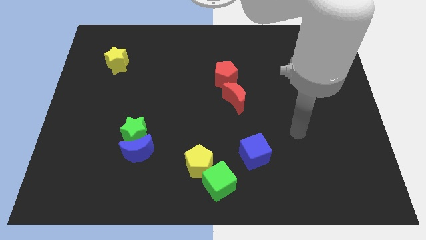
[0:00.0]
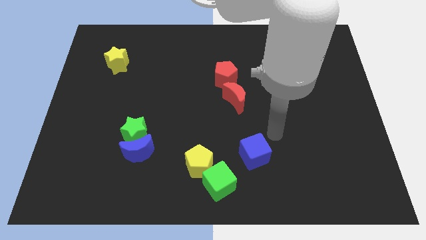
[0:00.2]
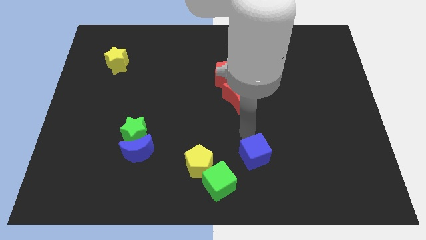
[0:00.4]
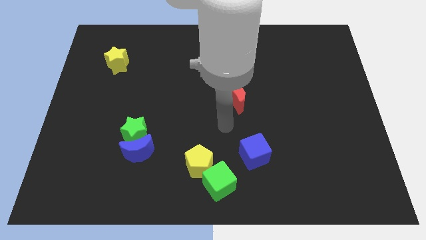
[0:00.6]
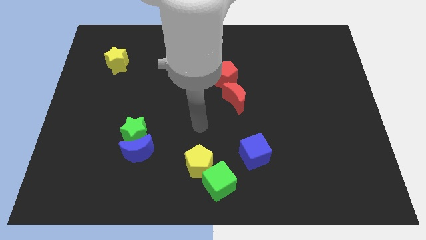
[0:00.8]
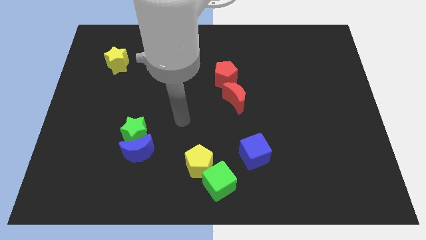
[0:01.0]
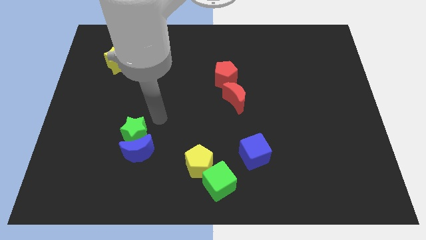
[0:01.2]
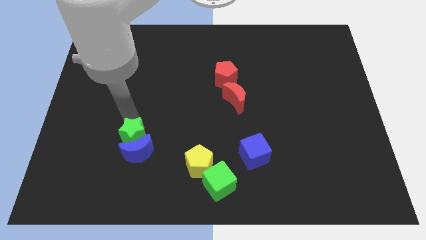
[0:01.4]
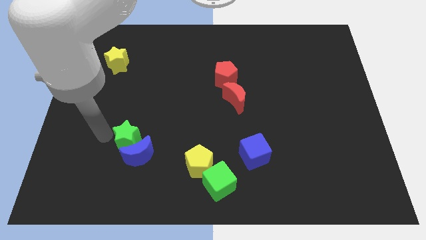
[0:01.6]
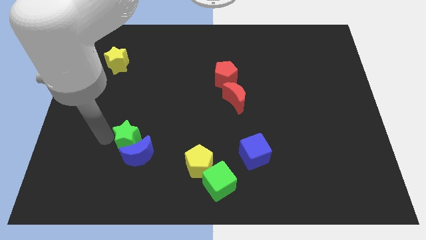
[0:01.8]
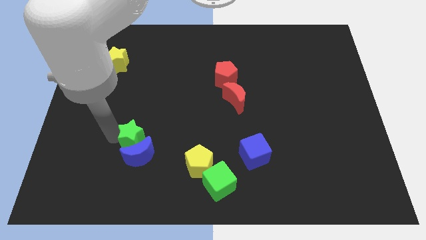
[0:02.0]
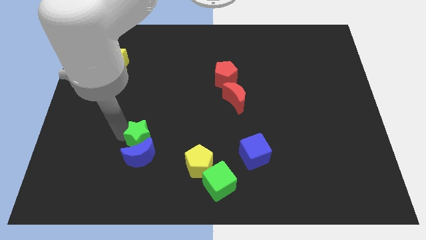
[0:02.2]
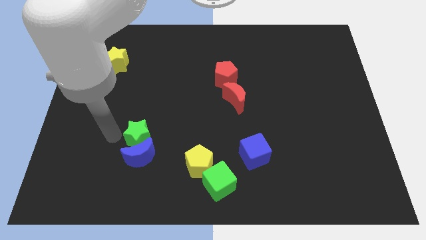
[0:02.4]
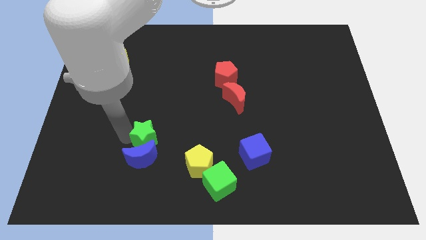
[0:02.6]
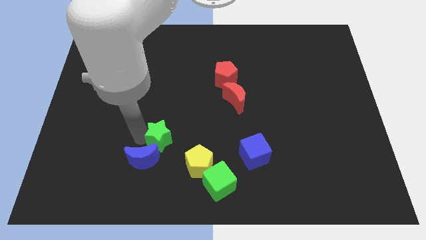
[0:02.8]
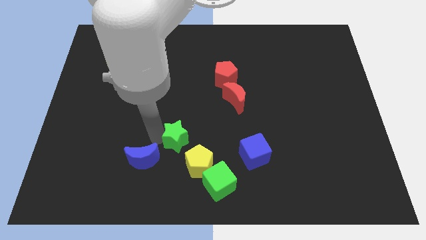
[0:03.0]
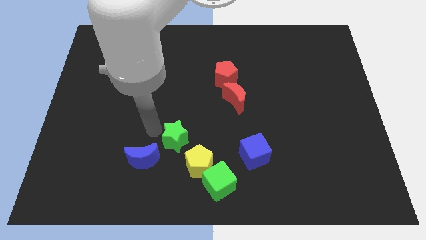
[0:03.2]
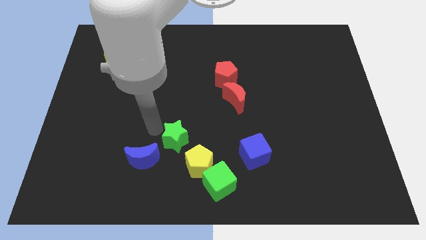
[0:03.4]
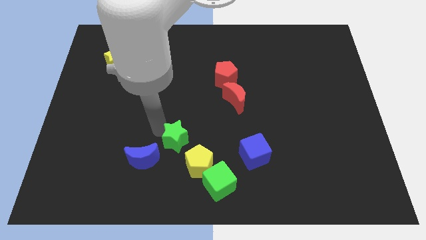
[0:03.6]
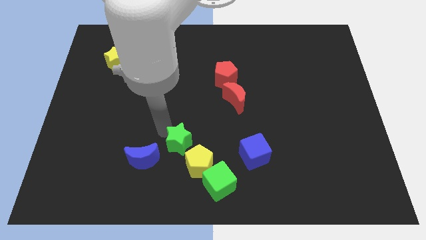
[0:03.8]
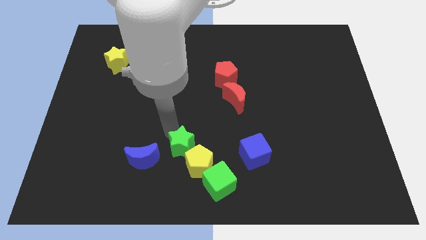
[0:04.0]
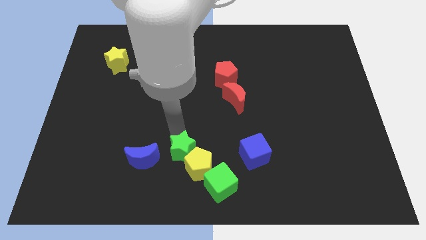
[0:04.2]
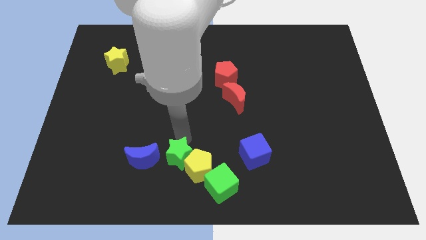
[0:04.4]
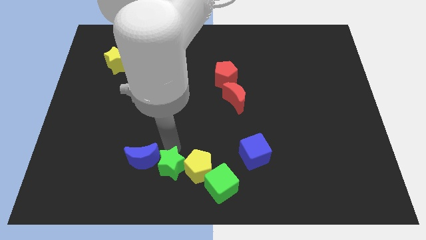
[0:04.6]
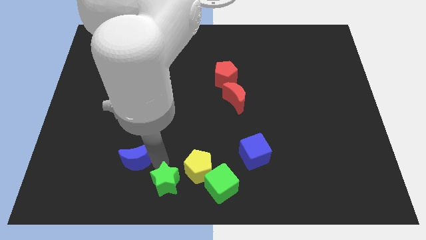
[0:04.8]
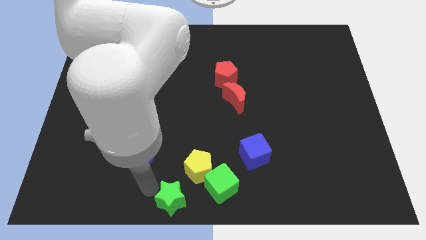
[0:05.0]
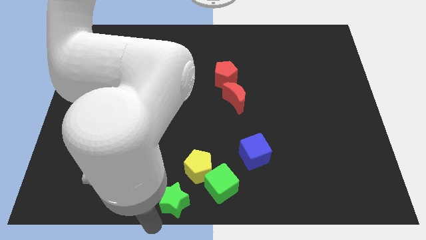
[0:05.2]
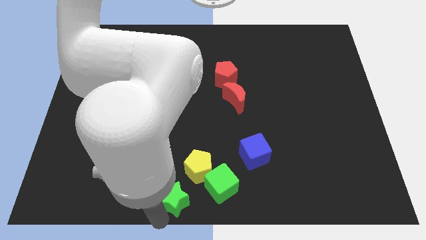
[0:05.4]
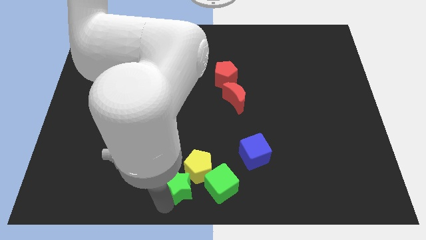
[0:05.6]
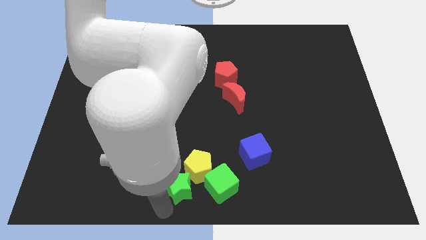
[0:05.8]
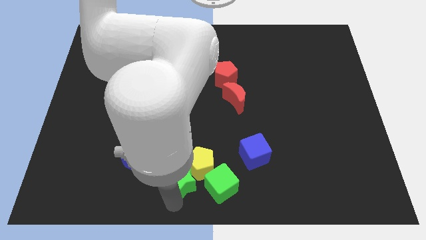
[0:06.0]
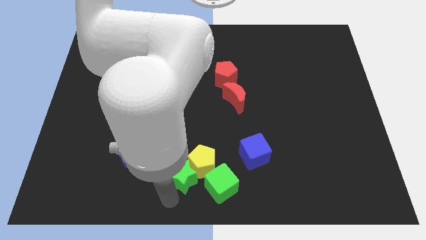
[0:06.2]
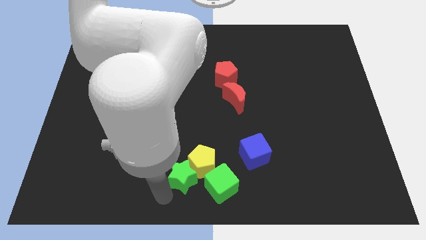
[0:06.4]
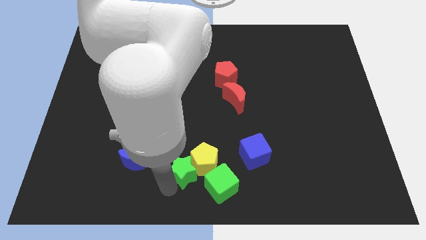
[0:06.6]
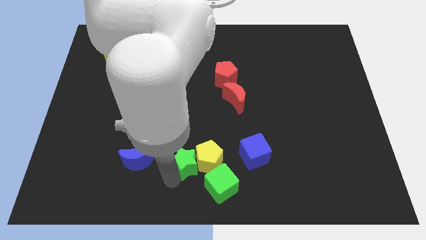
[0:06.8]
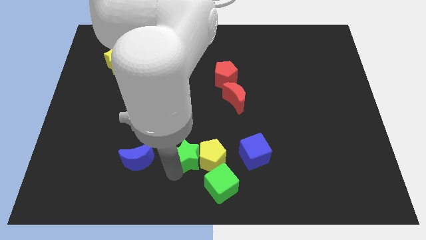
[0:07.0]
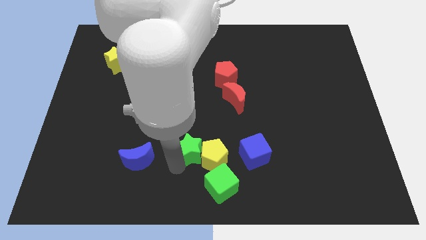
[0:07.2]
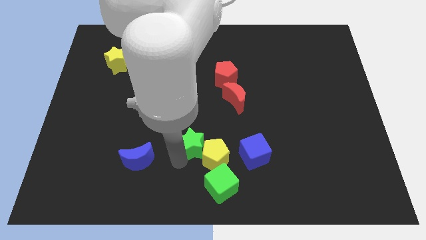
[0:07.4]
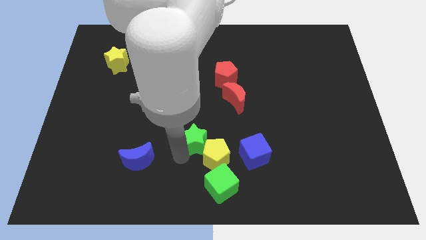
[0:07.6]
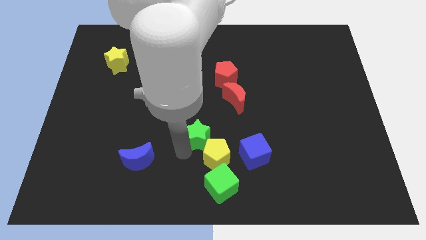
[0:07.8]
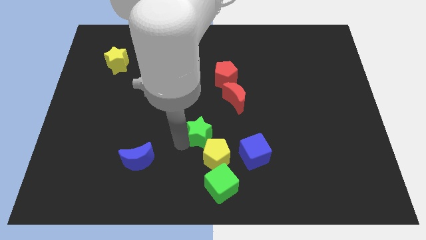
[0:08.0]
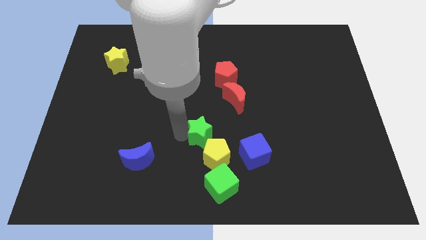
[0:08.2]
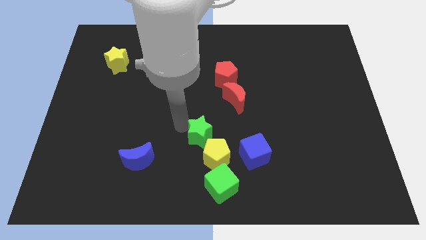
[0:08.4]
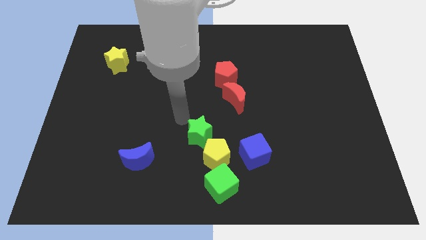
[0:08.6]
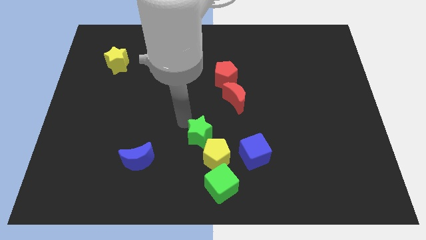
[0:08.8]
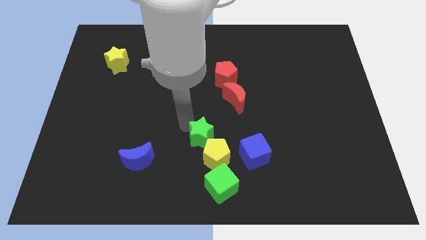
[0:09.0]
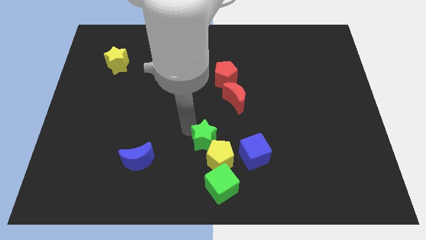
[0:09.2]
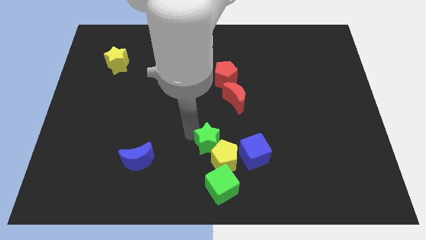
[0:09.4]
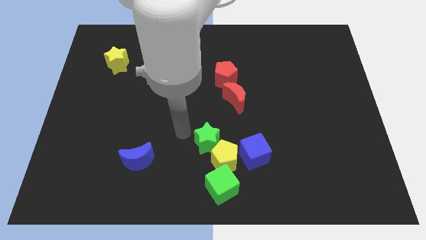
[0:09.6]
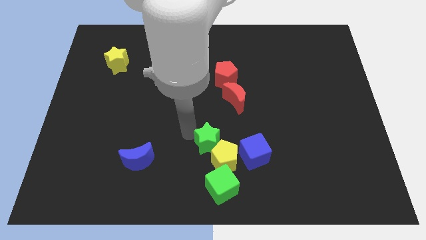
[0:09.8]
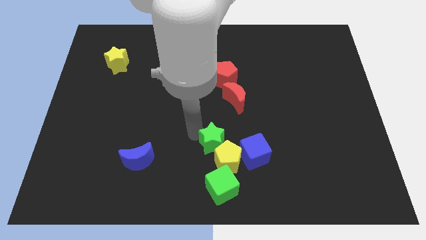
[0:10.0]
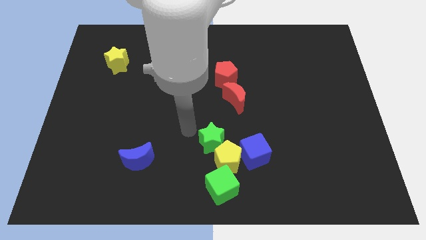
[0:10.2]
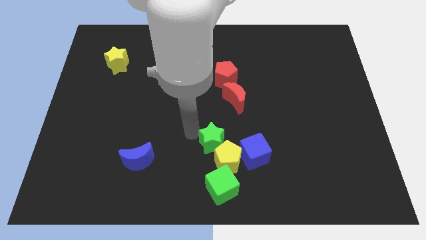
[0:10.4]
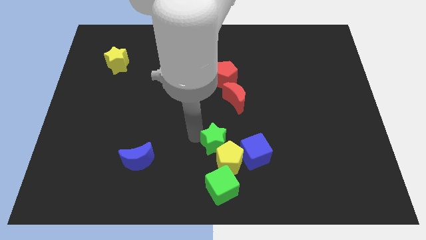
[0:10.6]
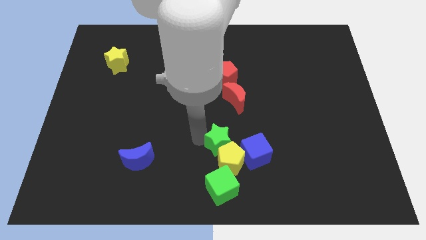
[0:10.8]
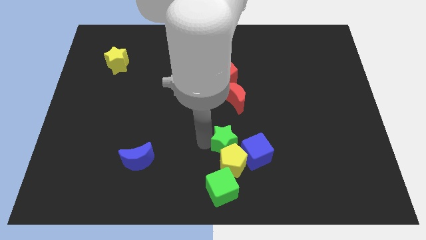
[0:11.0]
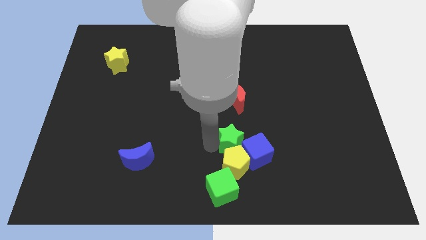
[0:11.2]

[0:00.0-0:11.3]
put the green star next to the blue cube

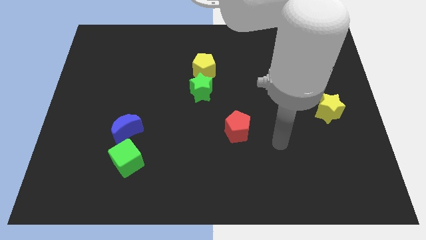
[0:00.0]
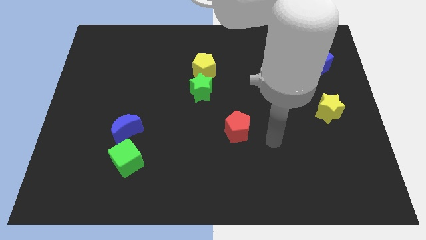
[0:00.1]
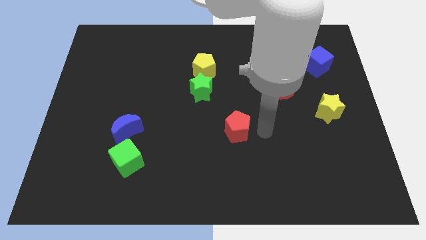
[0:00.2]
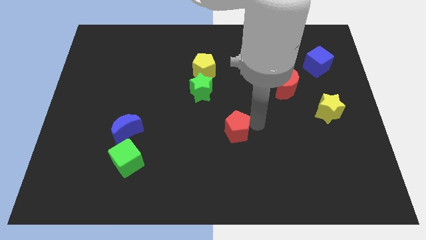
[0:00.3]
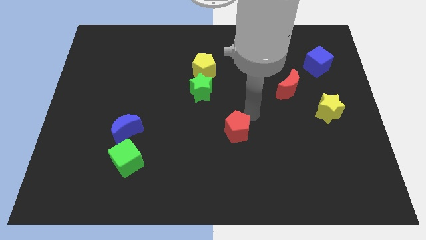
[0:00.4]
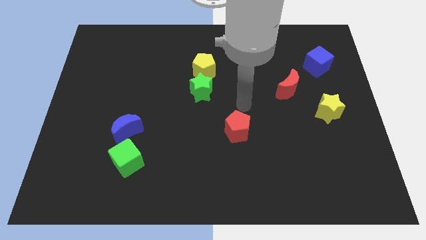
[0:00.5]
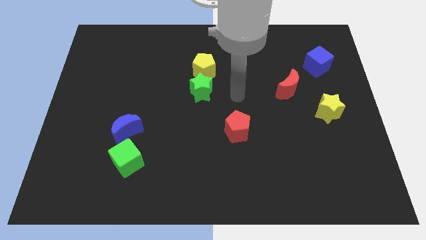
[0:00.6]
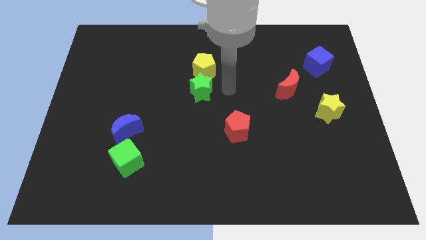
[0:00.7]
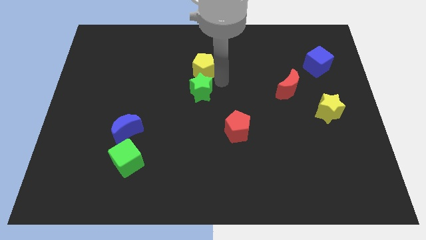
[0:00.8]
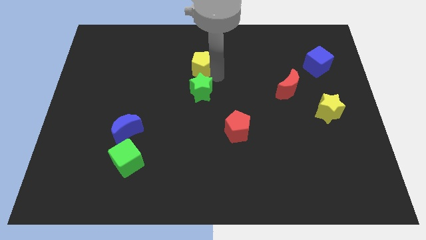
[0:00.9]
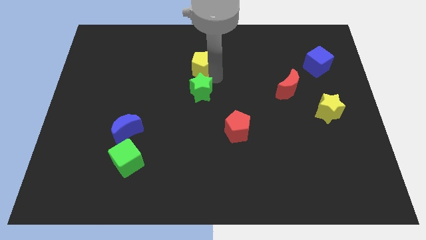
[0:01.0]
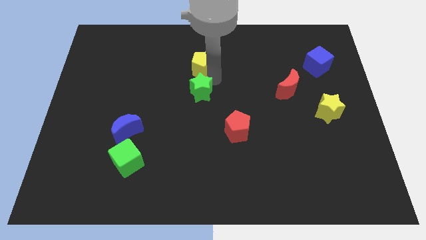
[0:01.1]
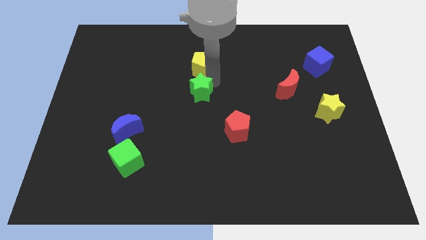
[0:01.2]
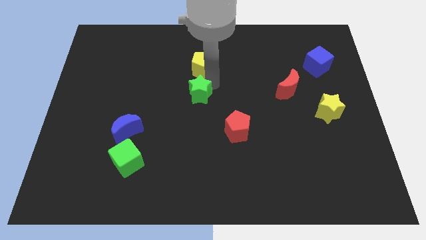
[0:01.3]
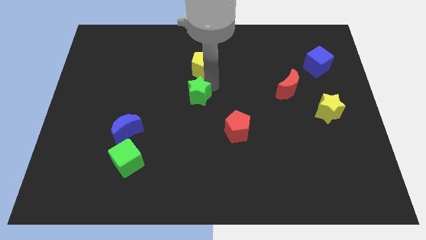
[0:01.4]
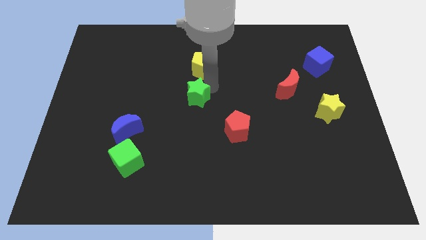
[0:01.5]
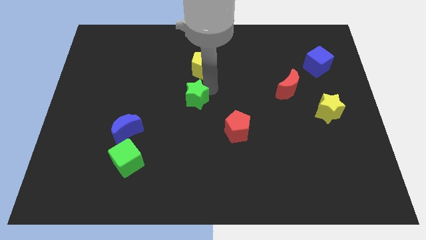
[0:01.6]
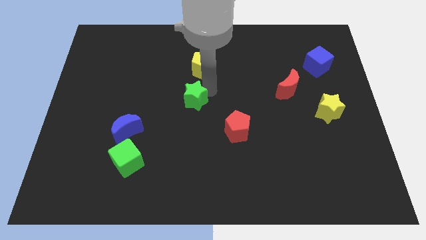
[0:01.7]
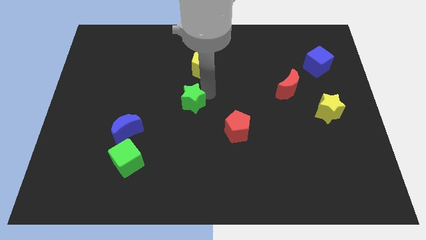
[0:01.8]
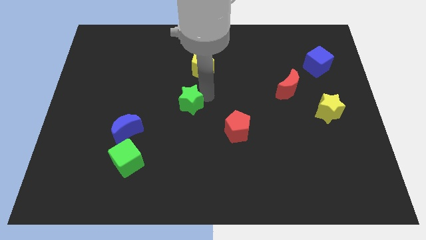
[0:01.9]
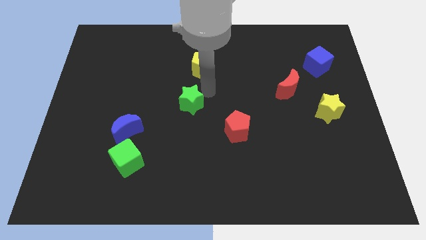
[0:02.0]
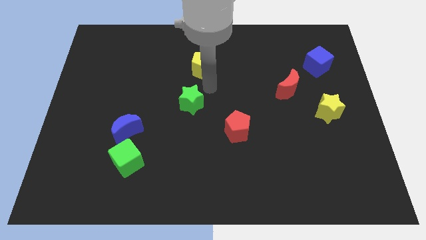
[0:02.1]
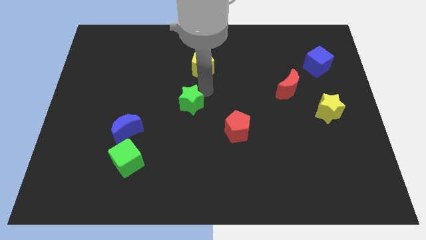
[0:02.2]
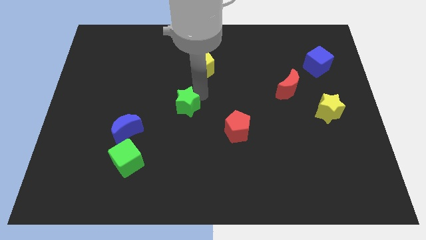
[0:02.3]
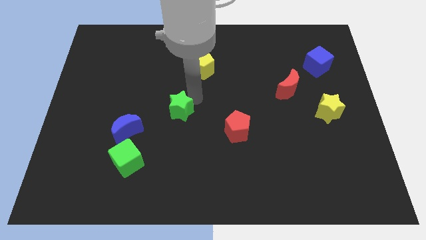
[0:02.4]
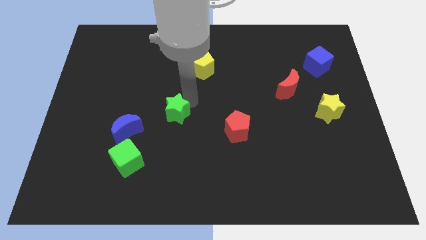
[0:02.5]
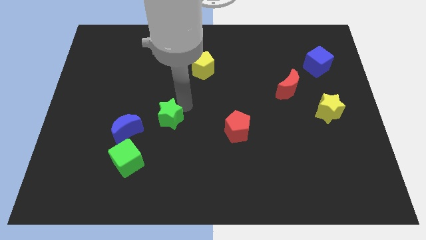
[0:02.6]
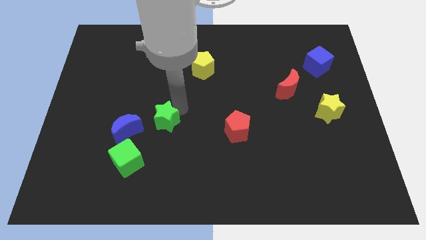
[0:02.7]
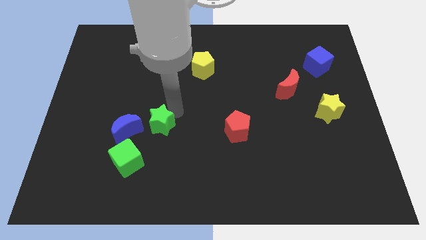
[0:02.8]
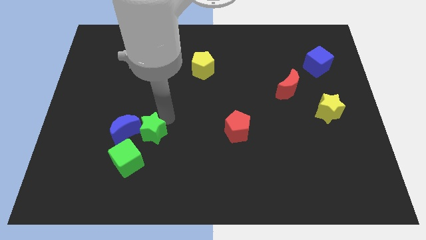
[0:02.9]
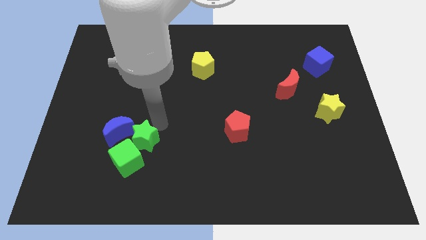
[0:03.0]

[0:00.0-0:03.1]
put the green star close to the green cube
